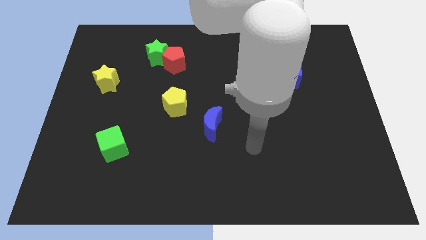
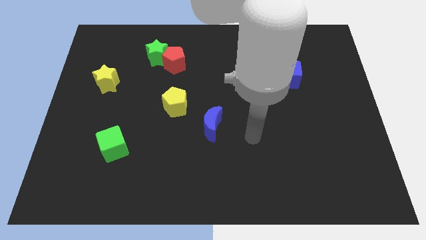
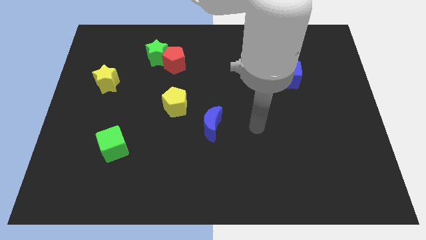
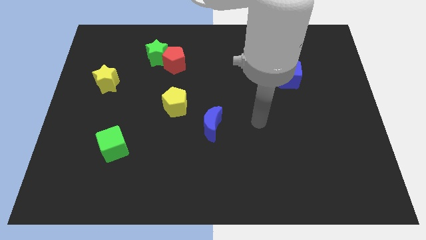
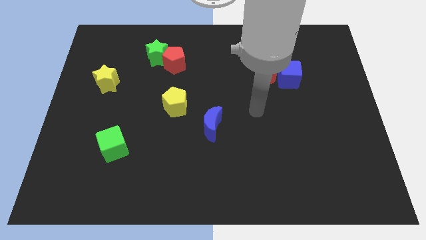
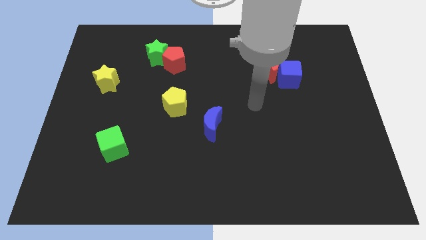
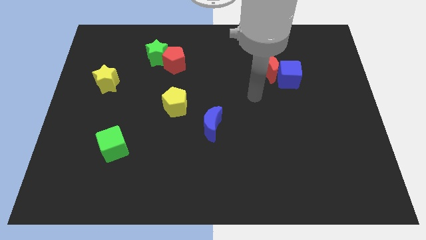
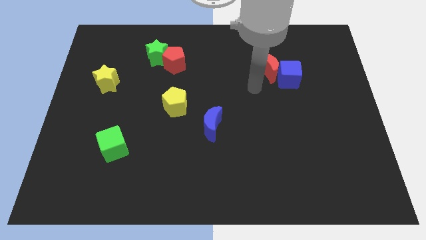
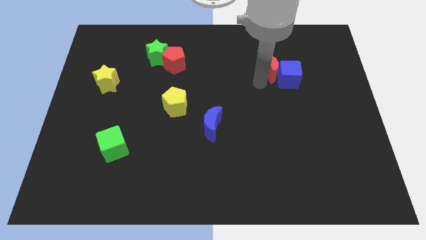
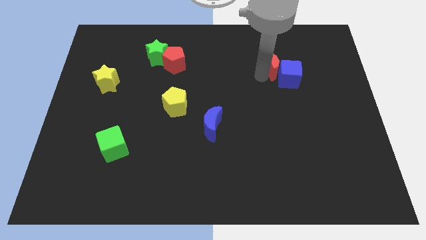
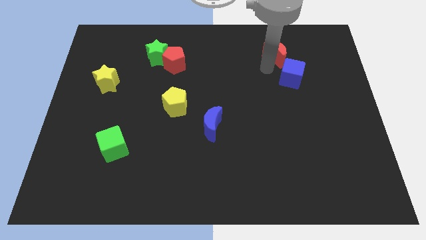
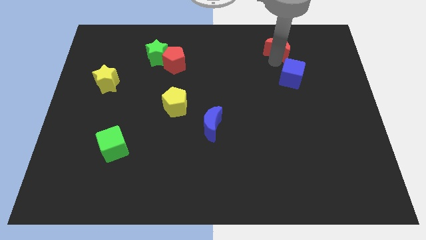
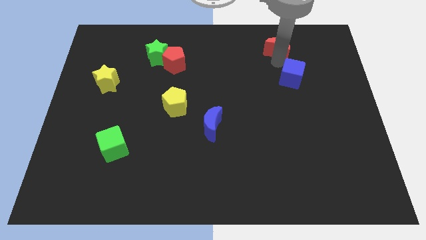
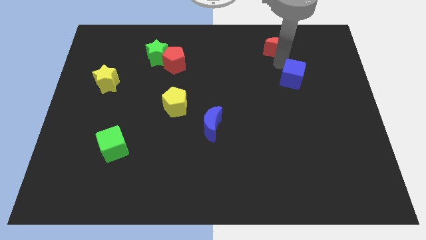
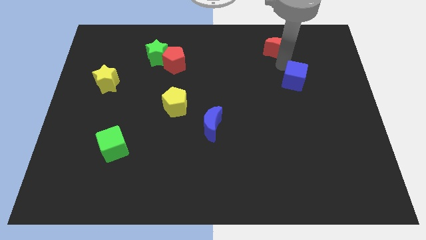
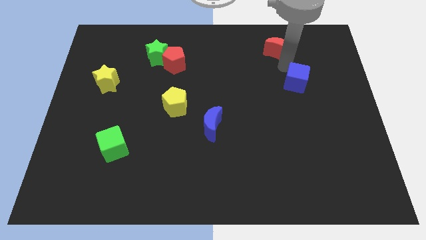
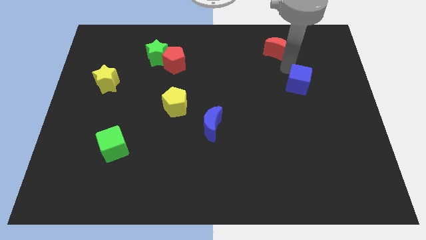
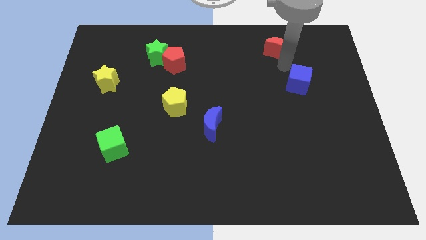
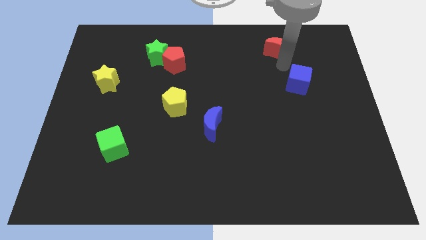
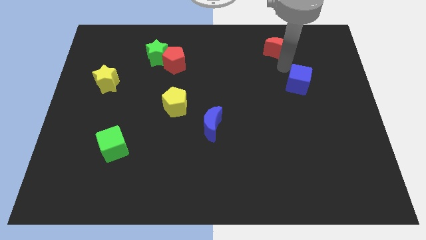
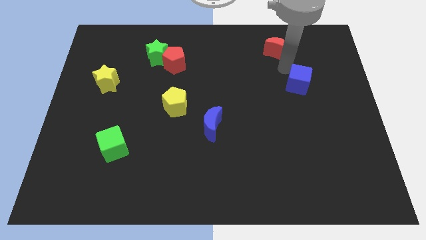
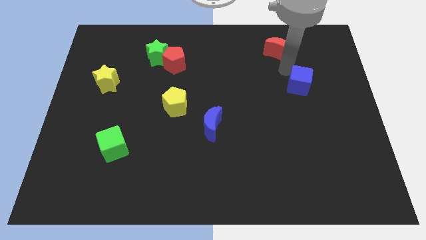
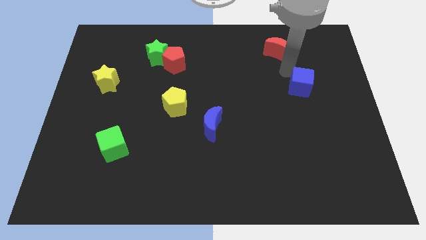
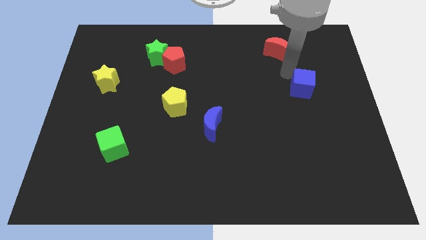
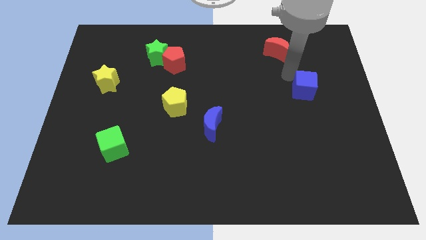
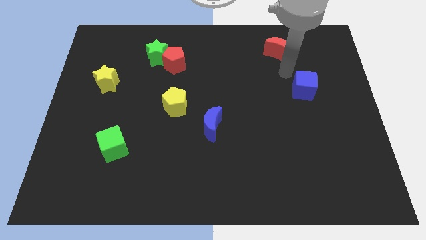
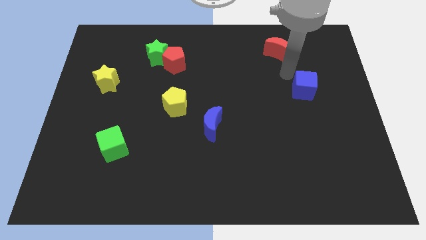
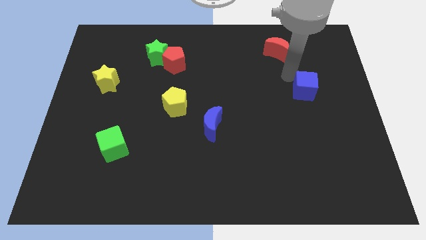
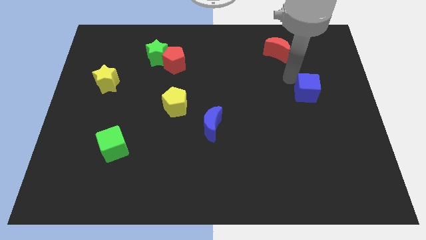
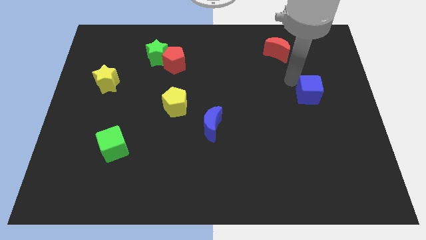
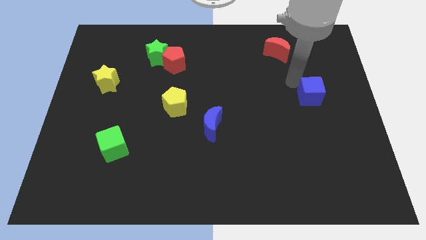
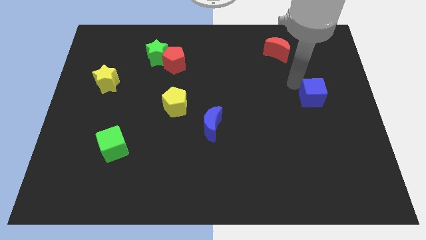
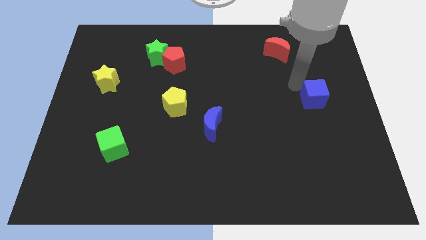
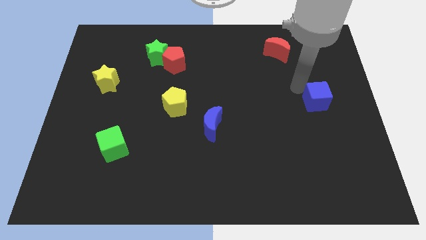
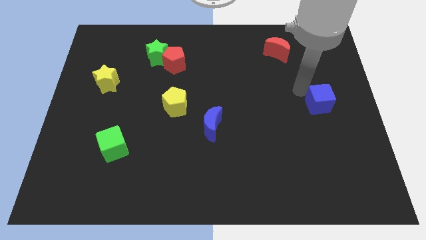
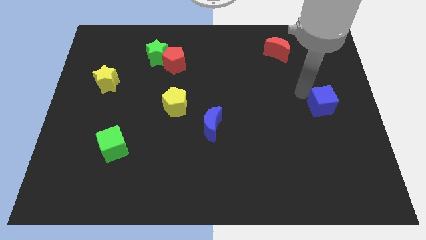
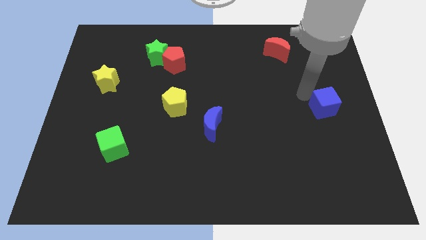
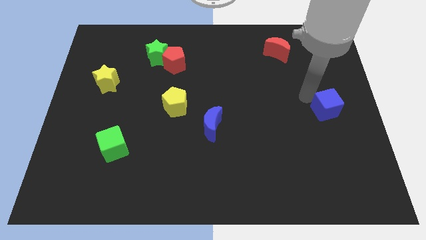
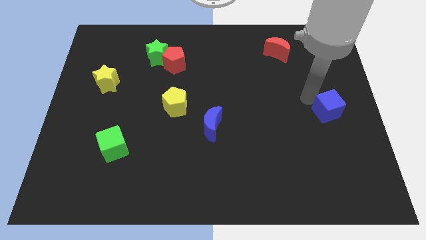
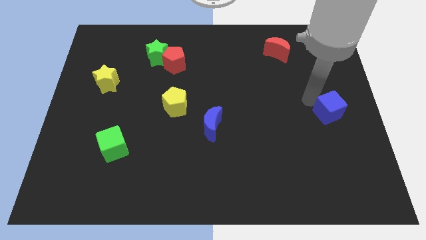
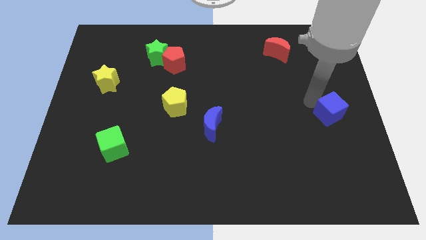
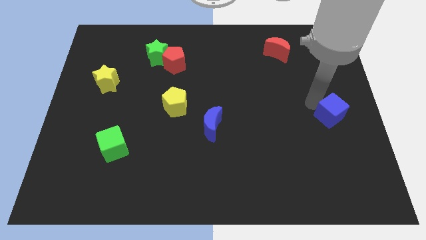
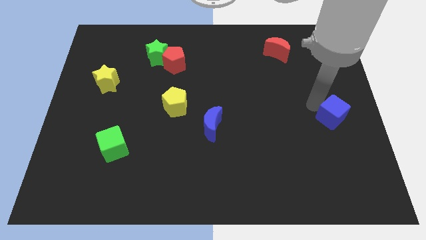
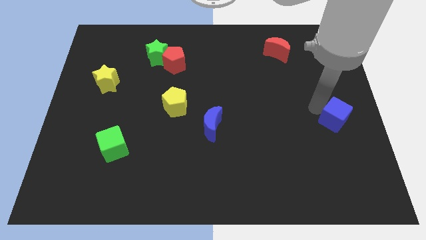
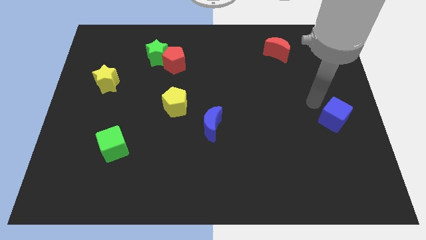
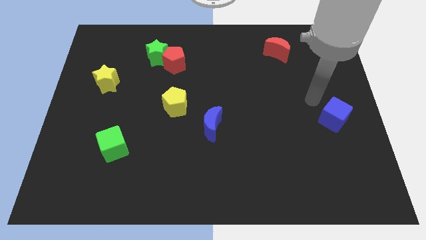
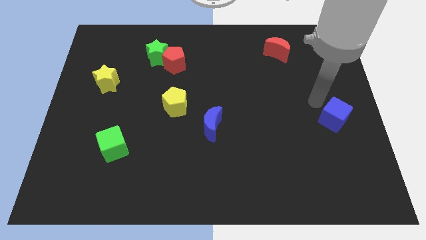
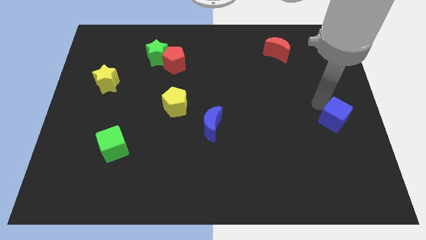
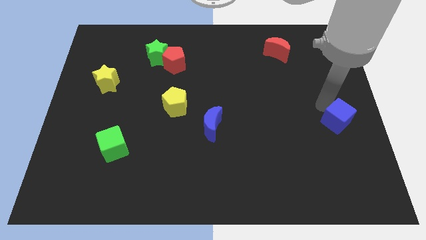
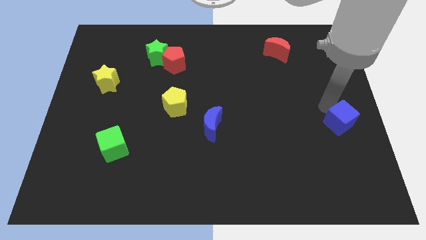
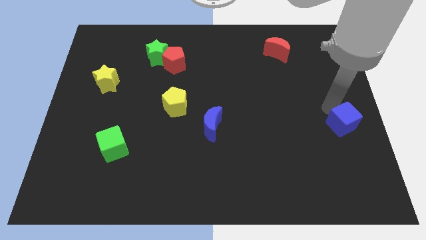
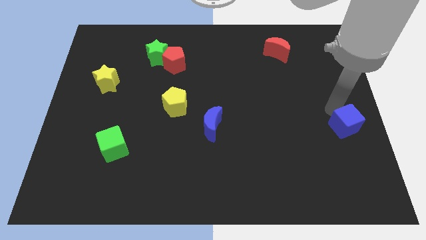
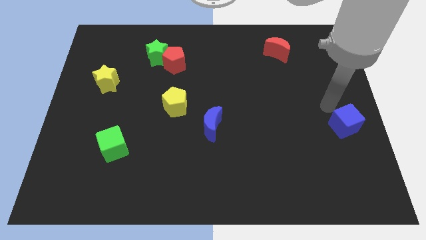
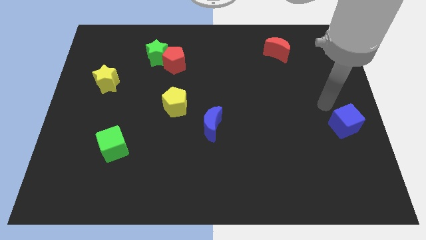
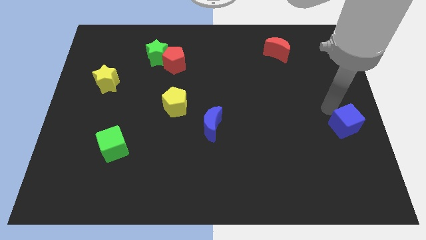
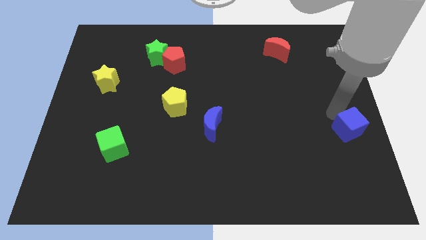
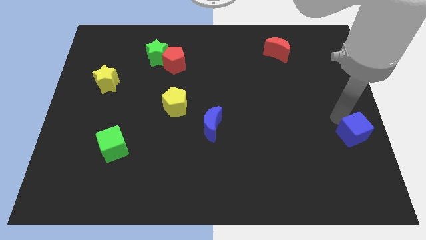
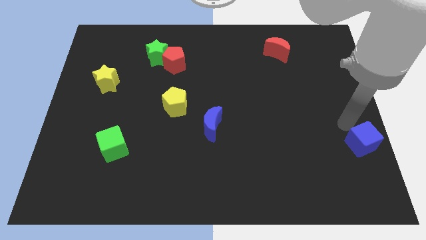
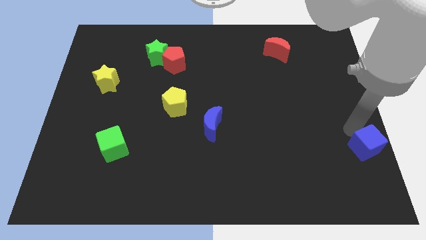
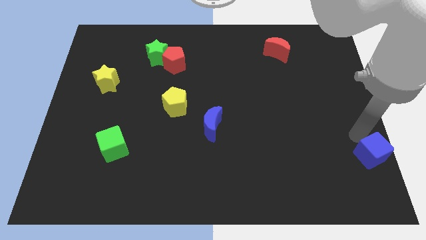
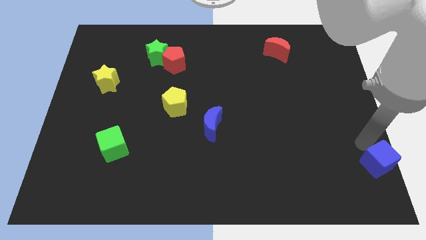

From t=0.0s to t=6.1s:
push the blue cube to the bottom right corner
